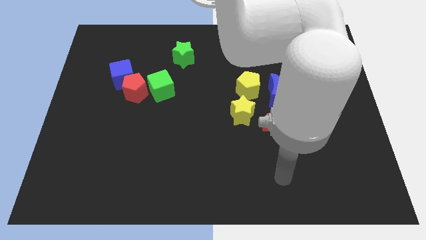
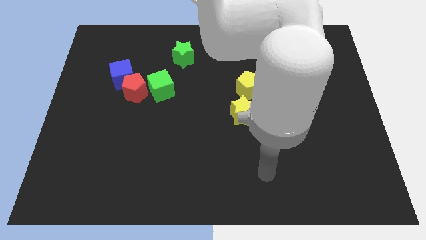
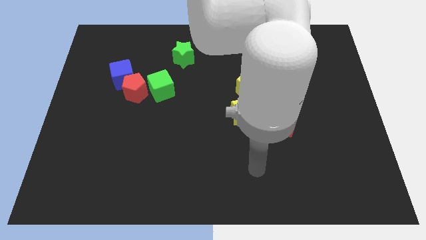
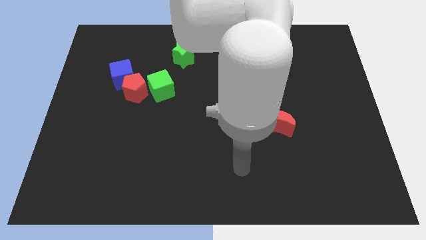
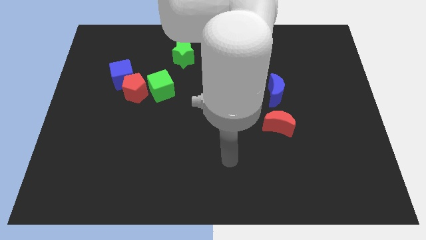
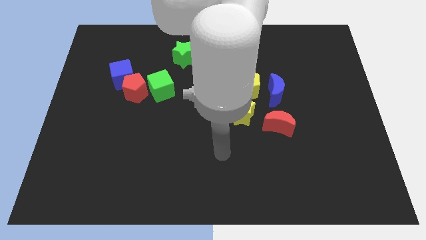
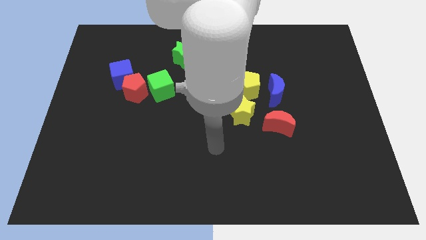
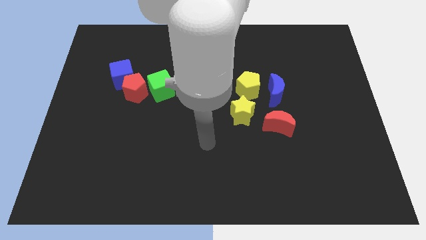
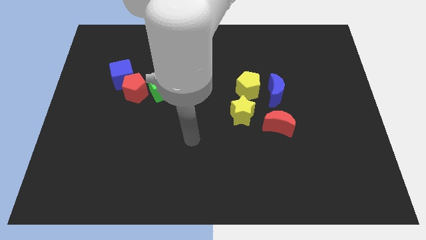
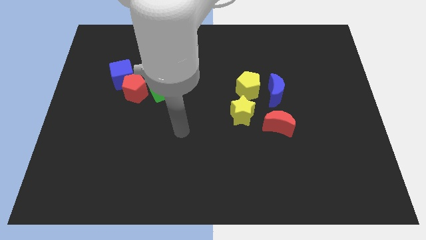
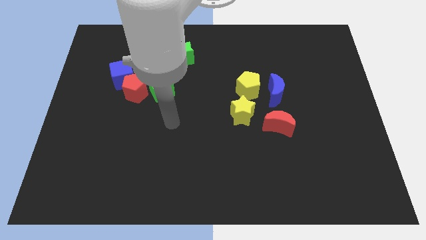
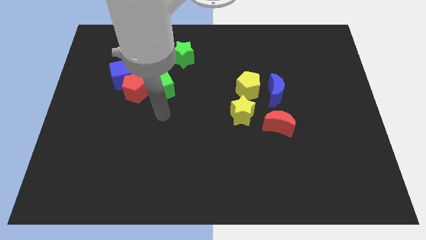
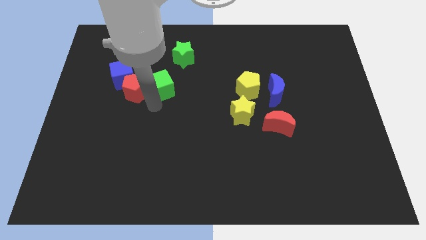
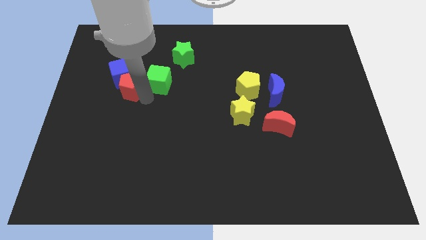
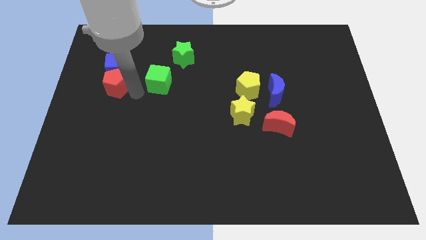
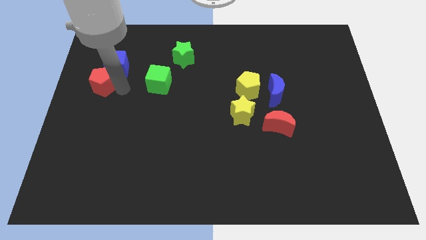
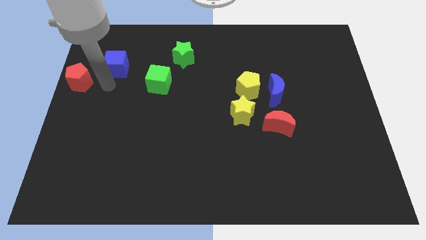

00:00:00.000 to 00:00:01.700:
pull the blue cube apart from the red pentagon

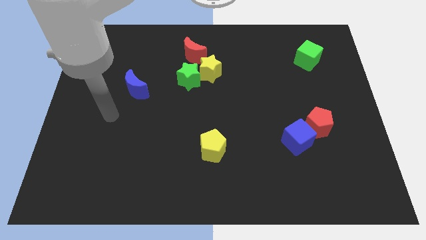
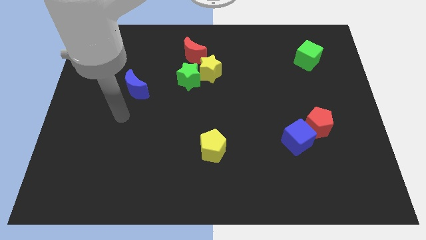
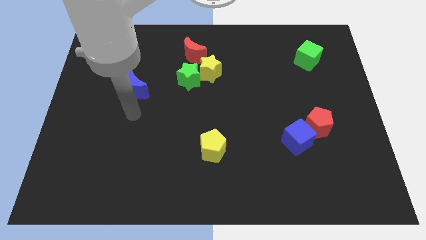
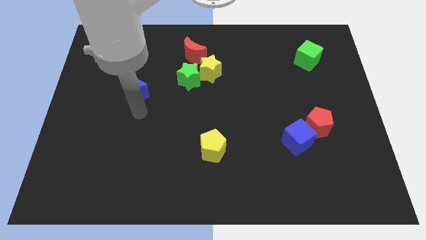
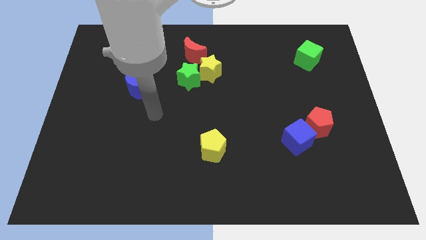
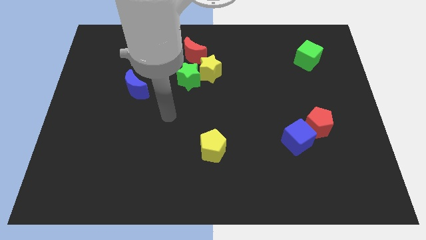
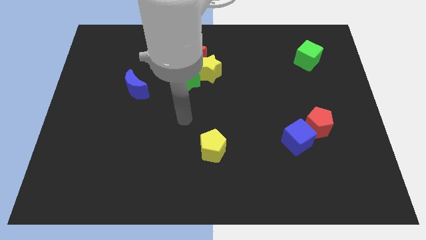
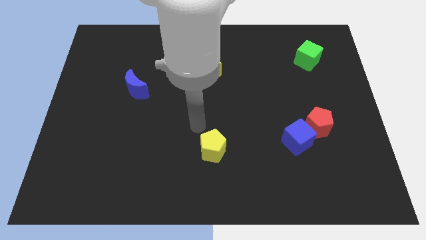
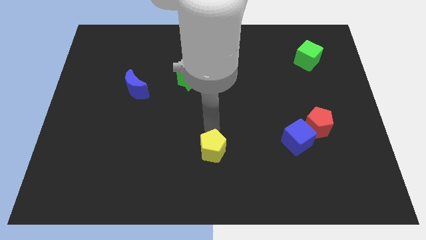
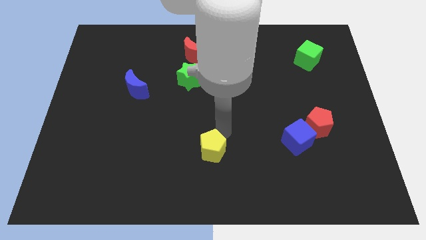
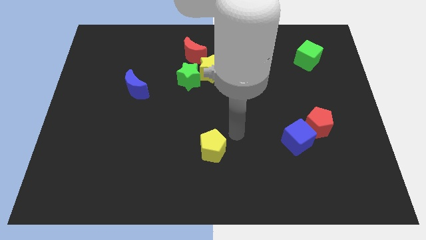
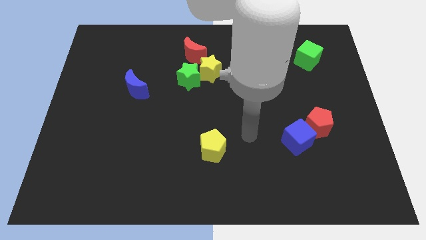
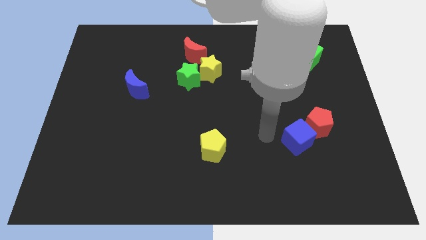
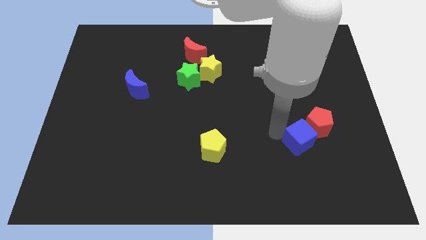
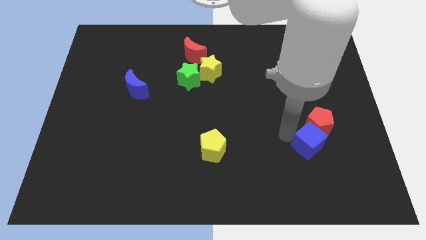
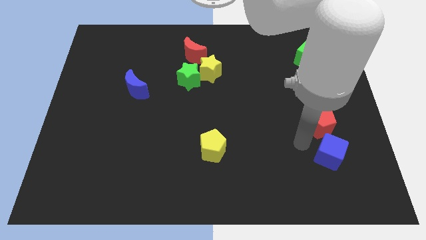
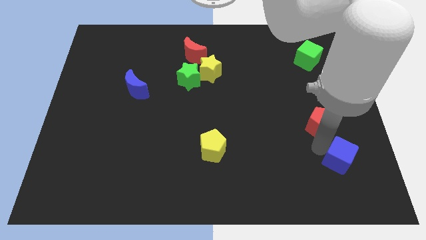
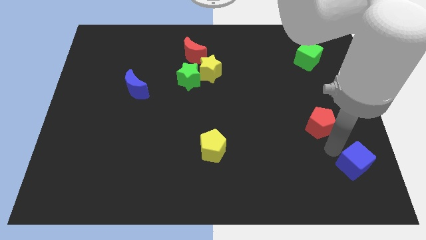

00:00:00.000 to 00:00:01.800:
separate the red pentagon from the blue cube

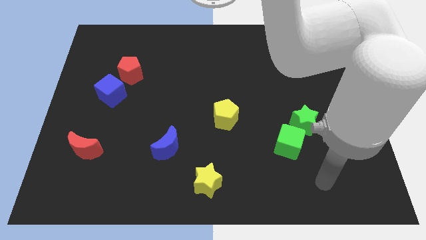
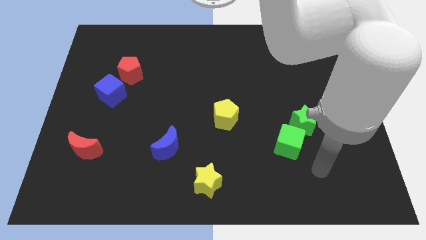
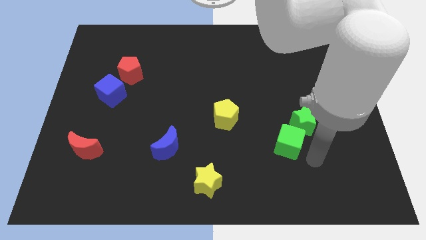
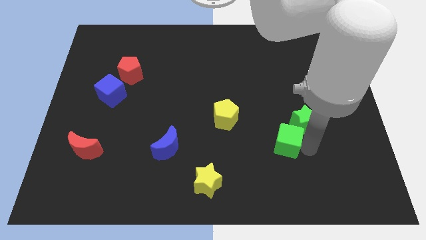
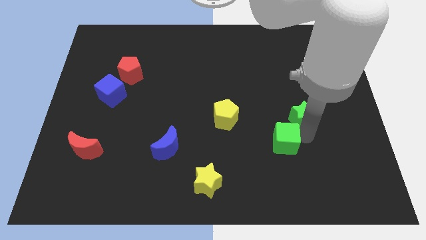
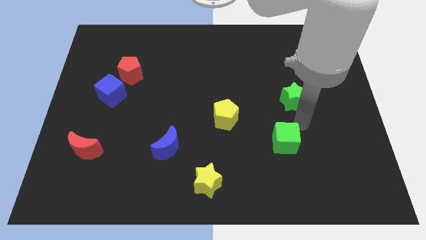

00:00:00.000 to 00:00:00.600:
pull the green cube apart from the green star

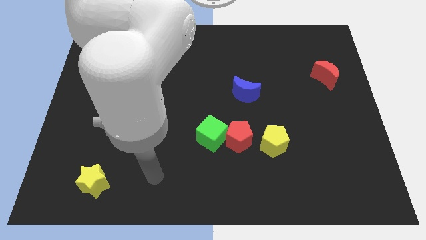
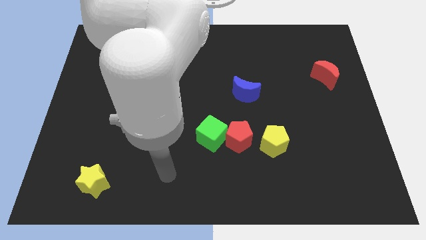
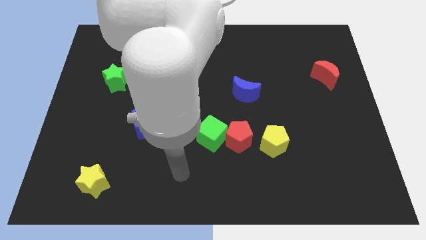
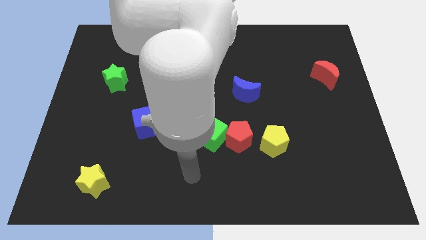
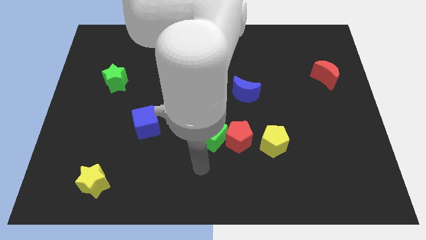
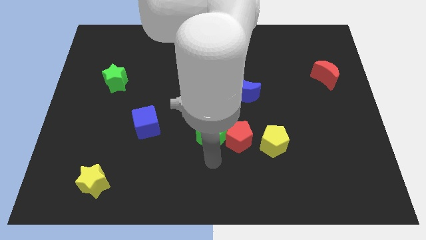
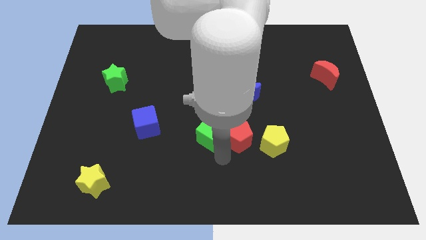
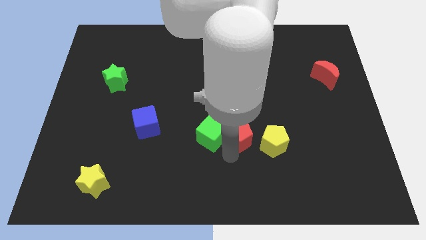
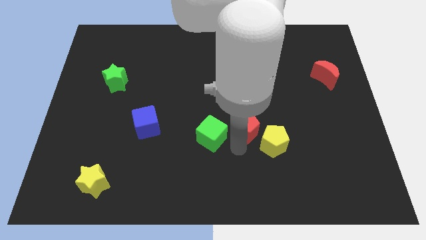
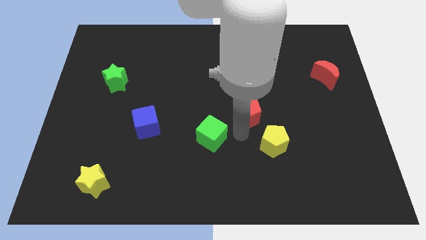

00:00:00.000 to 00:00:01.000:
move the green cube away from the red pentagon

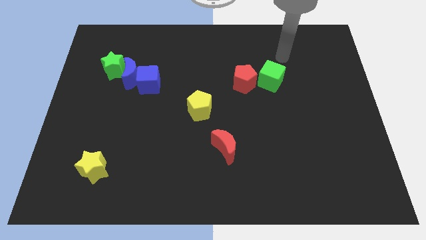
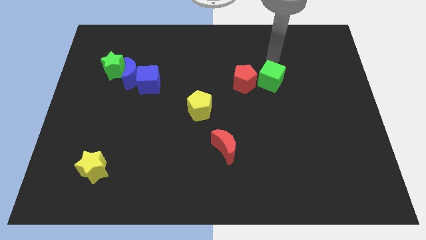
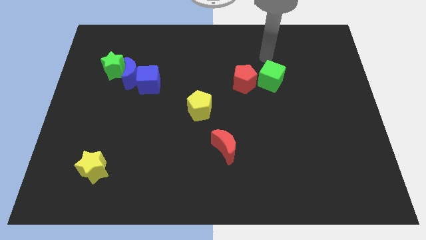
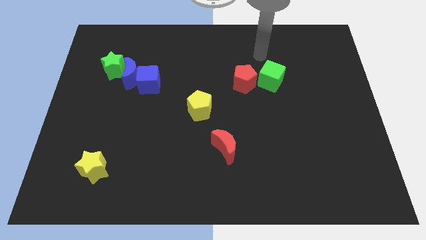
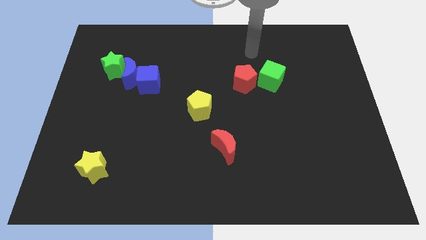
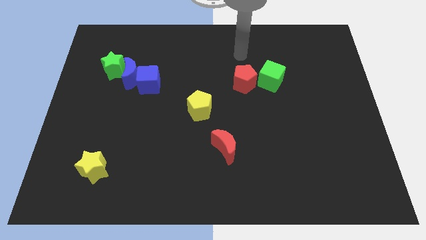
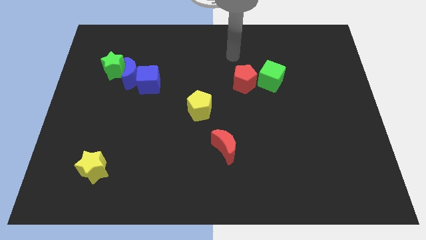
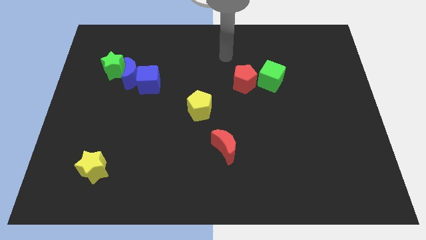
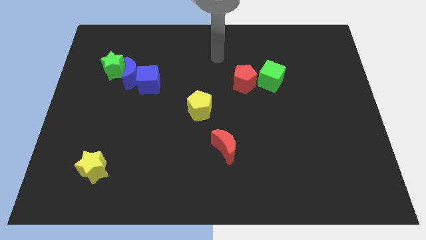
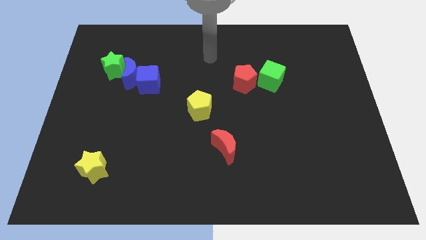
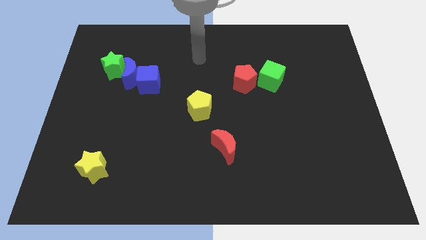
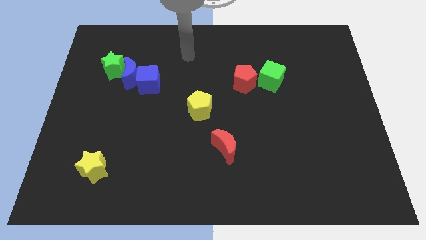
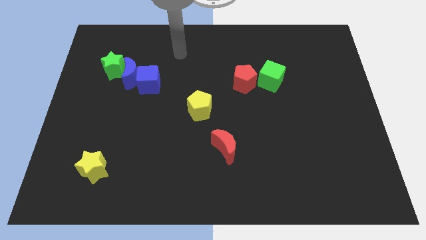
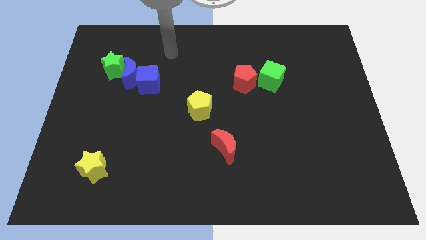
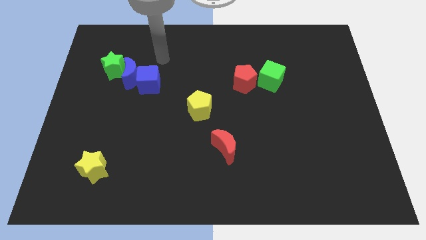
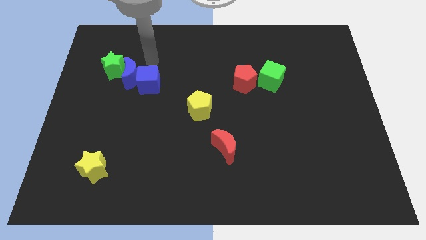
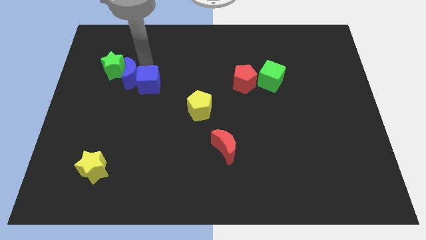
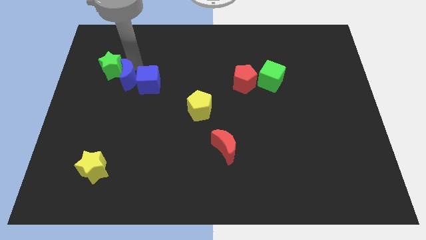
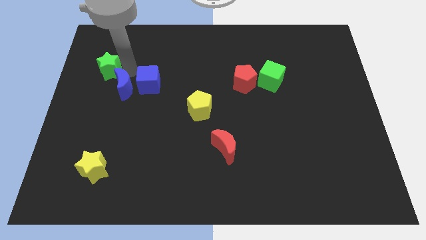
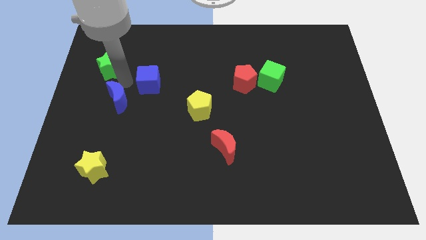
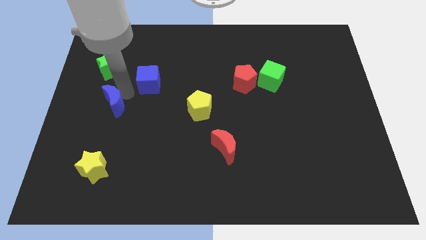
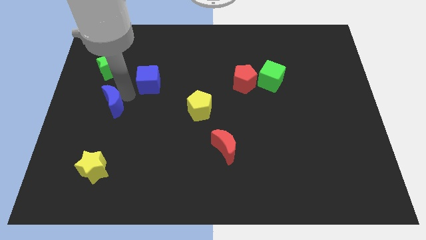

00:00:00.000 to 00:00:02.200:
move the blue cube away from the blue moon

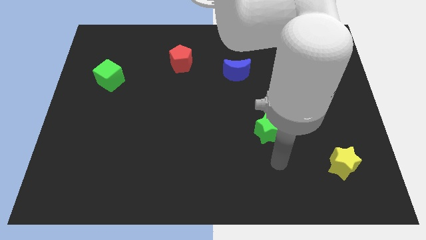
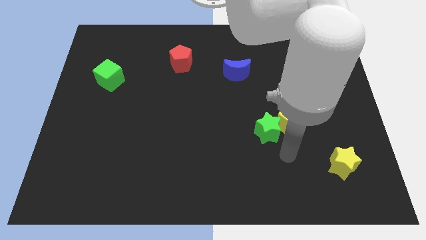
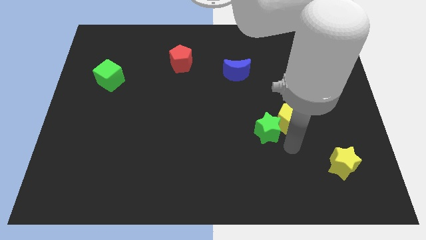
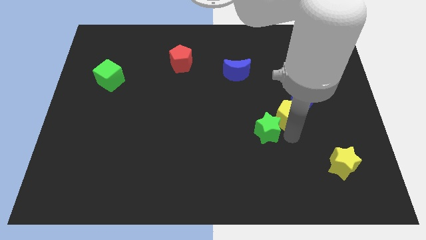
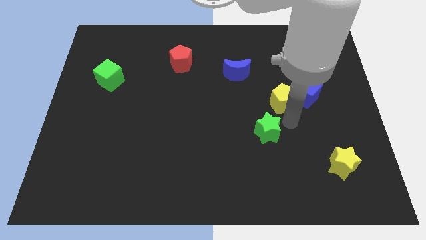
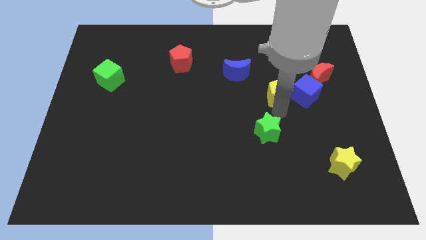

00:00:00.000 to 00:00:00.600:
separate the green star from the yellow pentagon

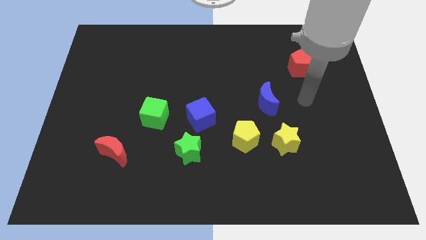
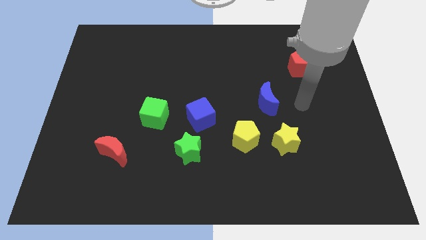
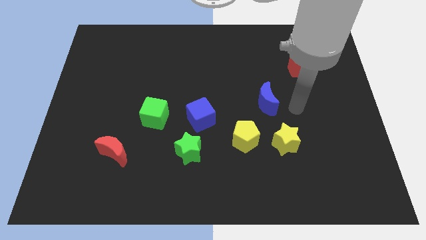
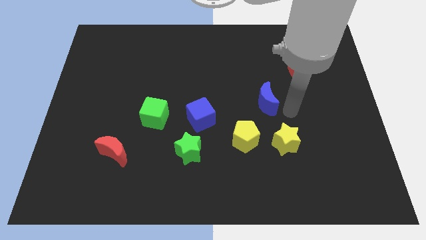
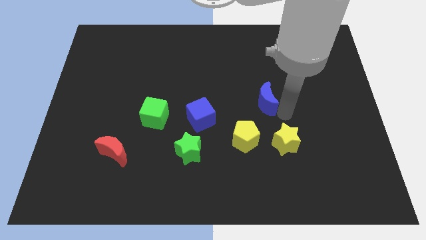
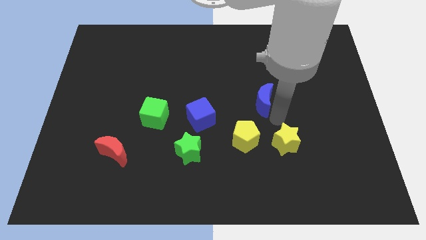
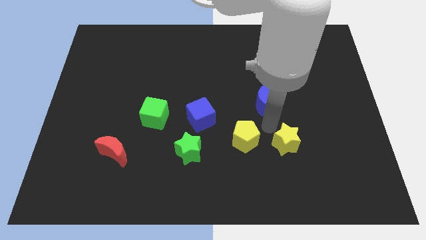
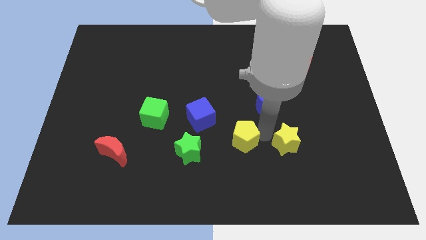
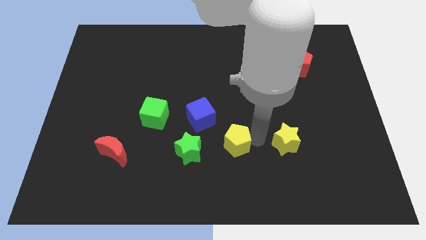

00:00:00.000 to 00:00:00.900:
separate the yellow star from the yellow pentagon

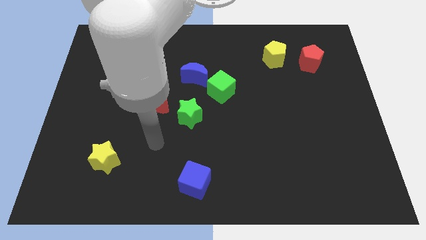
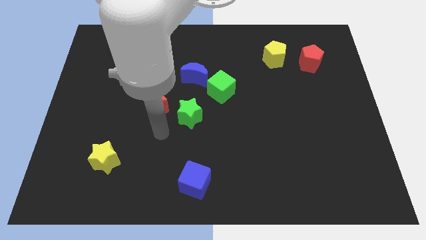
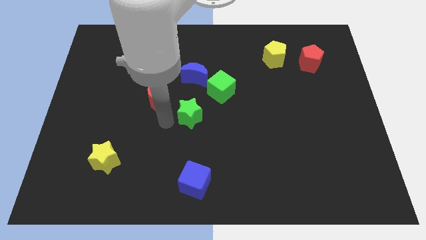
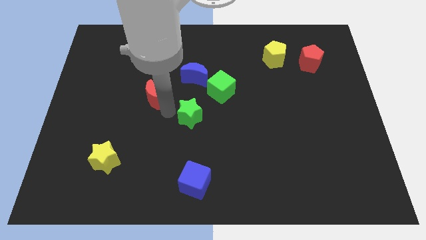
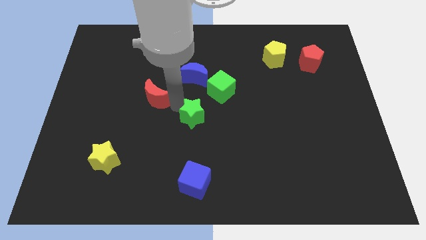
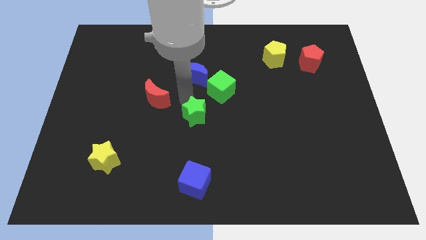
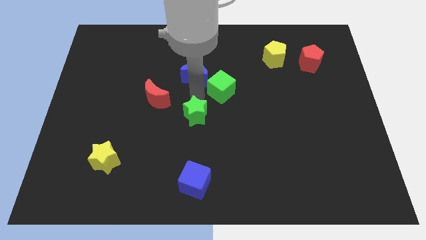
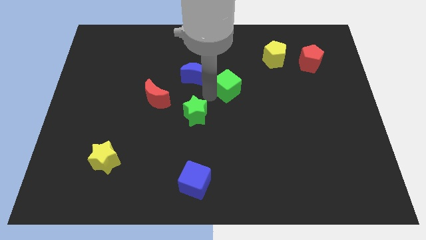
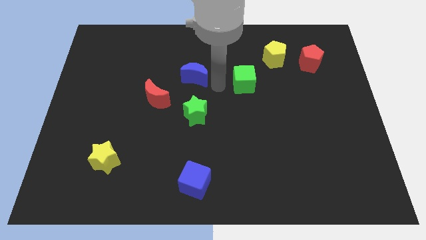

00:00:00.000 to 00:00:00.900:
separate the blue moon from the green cube
